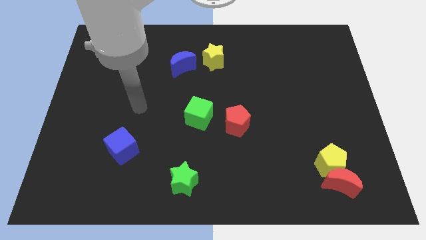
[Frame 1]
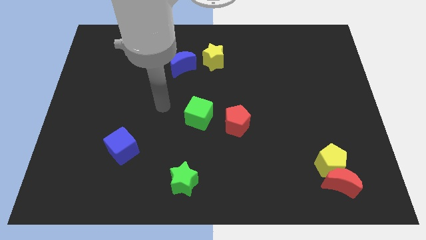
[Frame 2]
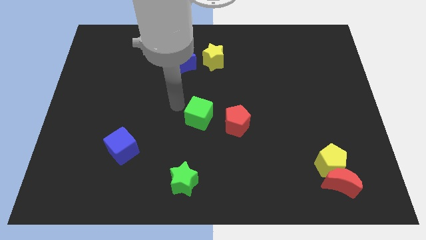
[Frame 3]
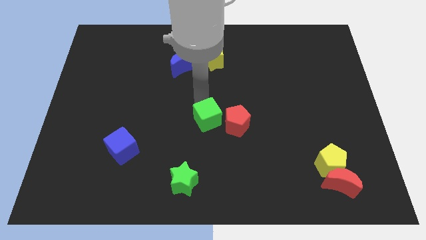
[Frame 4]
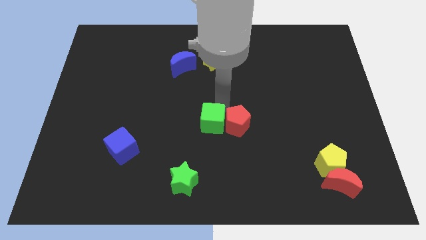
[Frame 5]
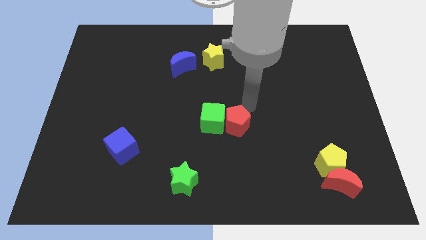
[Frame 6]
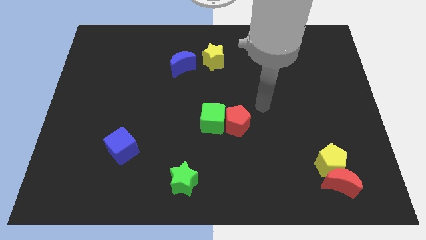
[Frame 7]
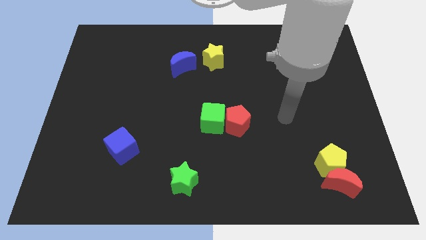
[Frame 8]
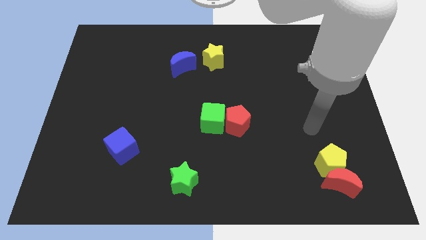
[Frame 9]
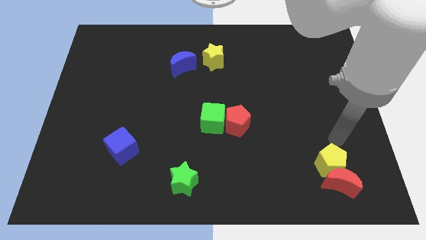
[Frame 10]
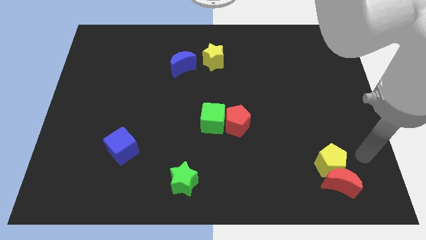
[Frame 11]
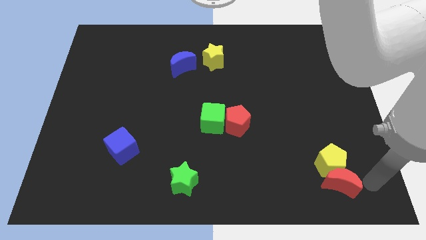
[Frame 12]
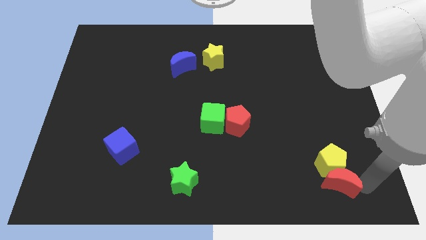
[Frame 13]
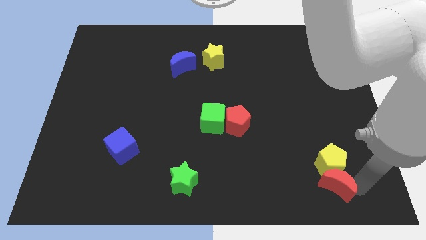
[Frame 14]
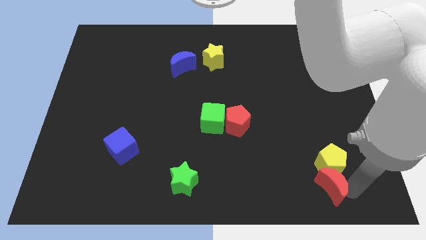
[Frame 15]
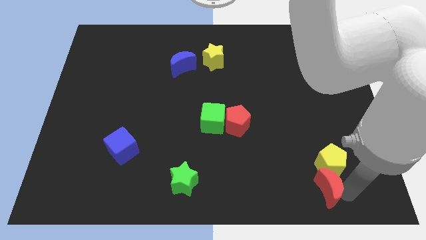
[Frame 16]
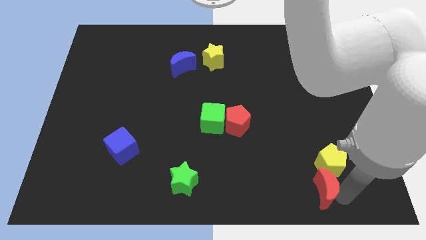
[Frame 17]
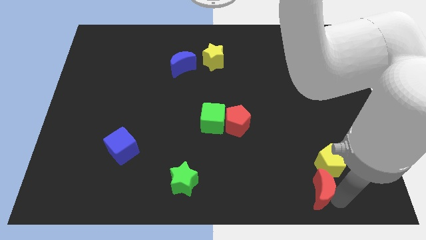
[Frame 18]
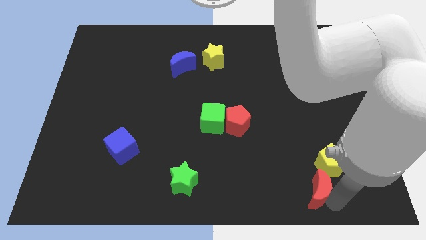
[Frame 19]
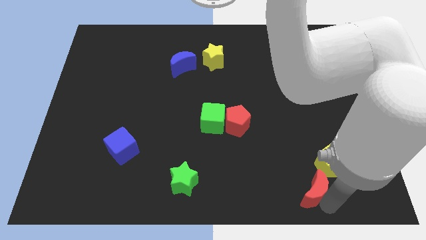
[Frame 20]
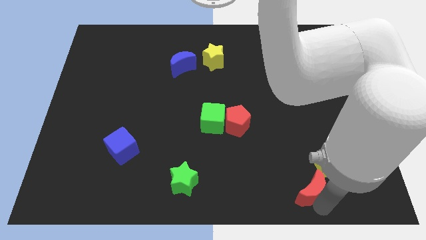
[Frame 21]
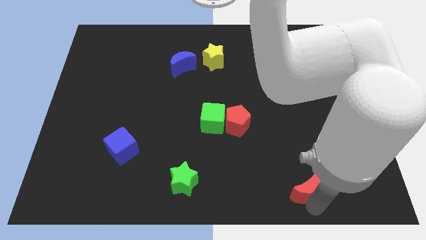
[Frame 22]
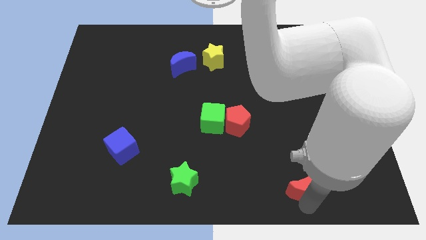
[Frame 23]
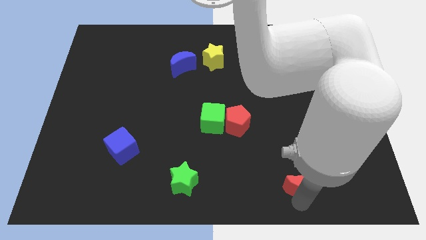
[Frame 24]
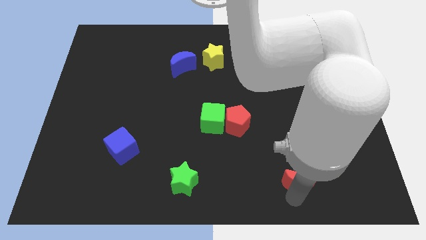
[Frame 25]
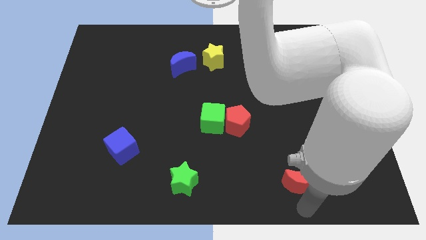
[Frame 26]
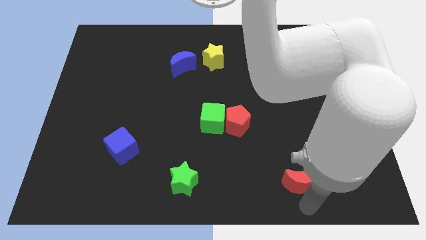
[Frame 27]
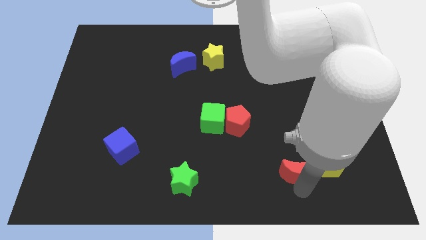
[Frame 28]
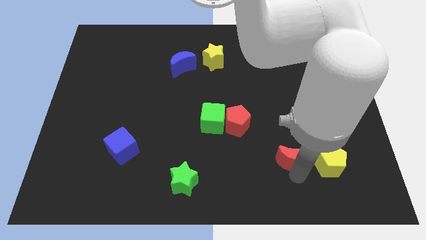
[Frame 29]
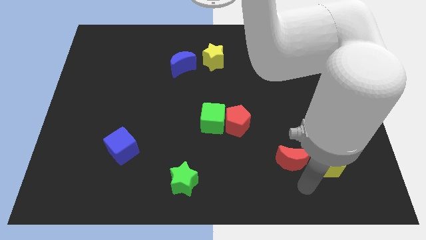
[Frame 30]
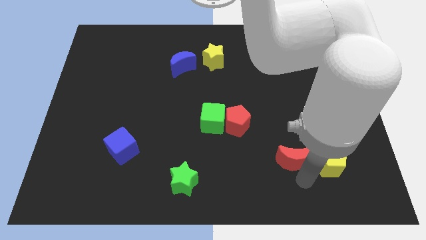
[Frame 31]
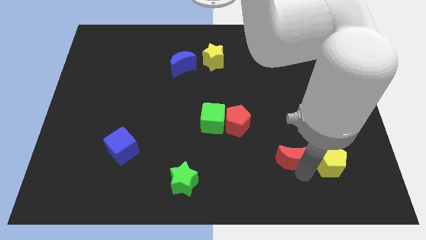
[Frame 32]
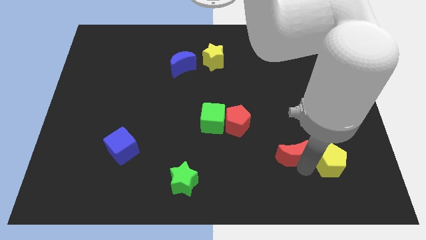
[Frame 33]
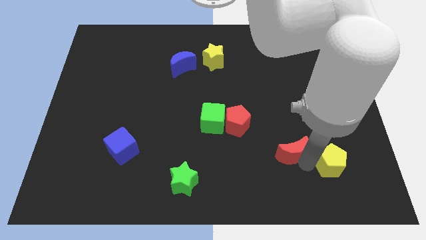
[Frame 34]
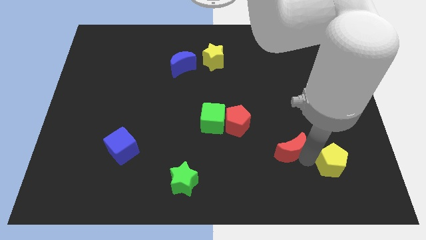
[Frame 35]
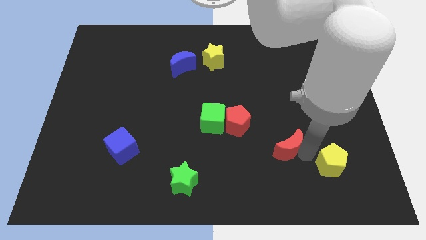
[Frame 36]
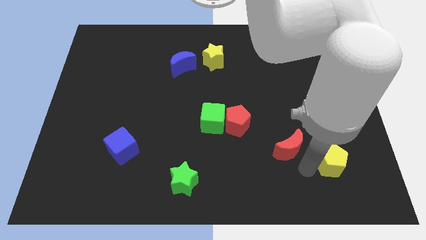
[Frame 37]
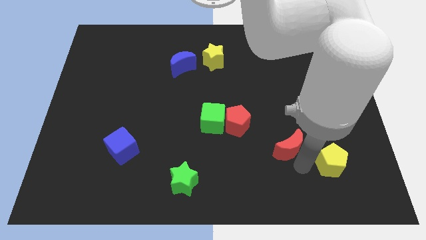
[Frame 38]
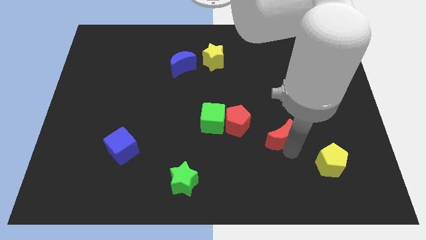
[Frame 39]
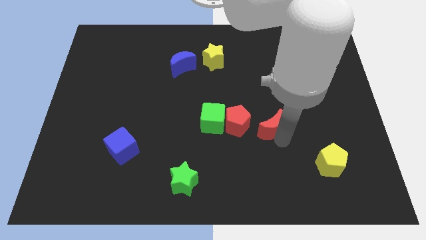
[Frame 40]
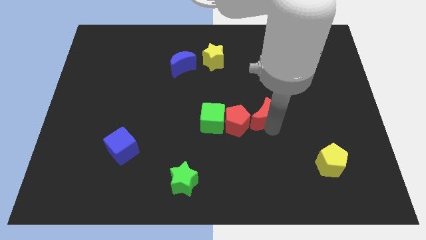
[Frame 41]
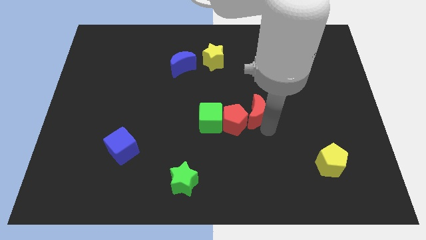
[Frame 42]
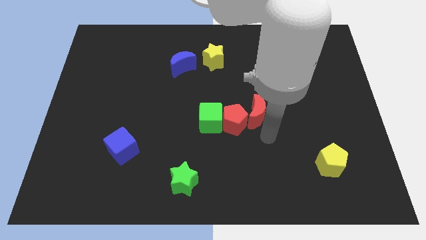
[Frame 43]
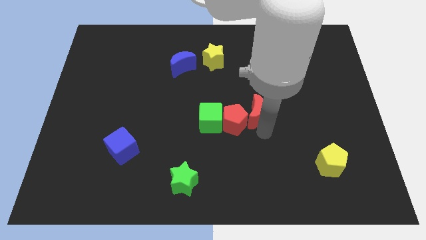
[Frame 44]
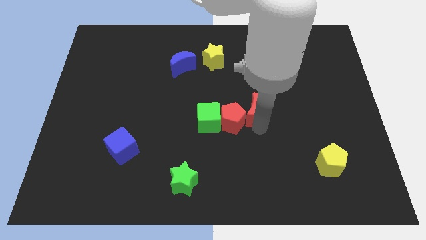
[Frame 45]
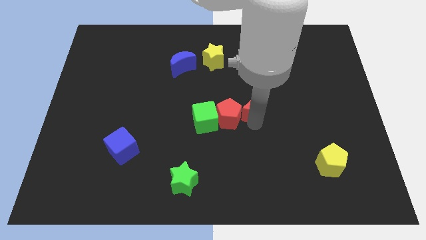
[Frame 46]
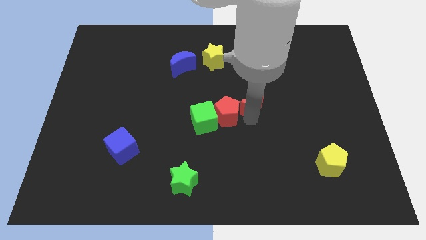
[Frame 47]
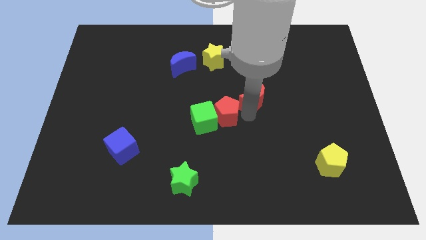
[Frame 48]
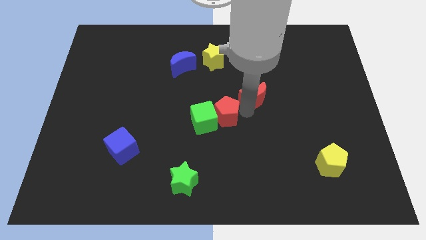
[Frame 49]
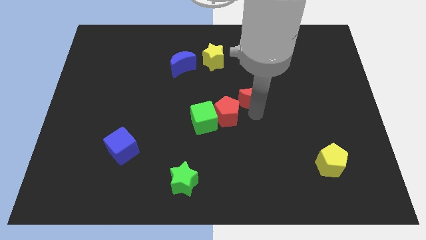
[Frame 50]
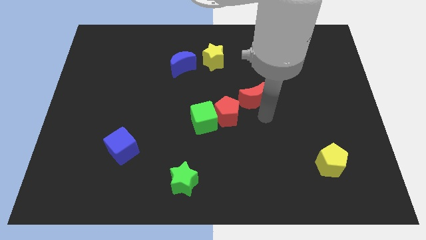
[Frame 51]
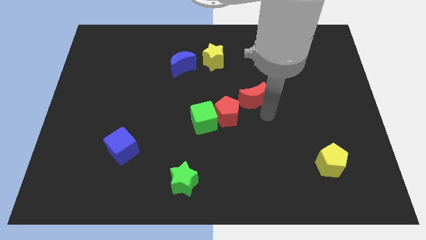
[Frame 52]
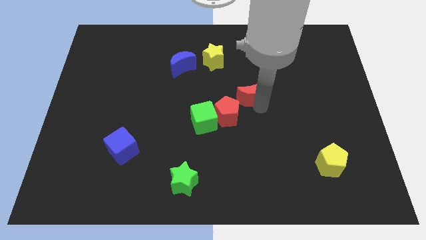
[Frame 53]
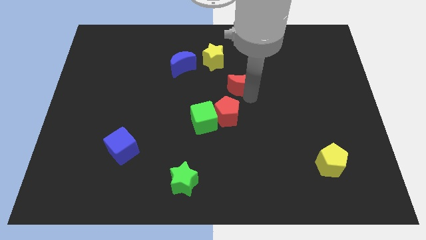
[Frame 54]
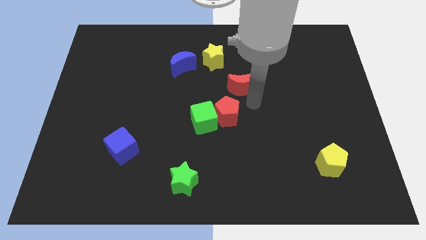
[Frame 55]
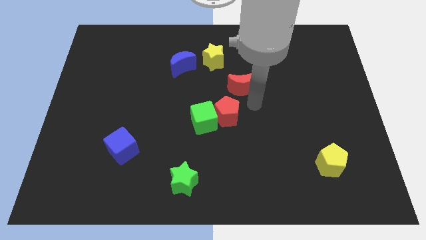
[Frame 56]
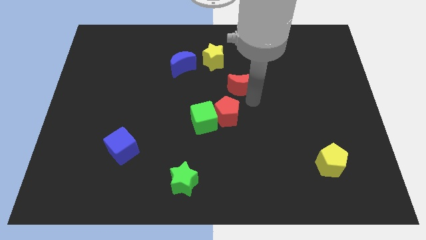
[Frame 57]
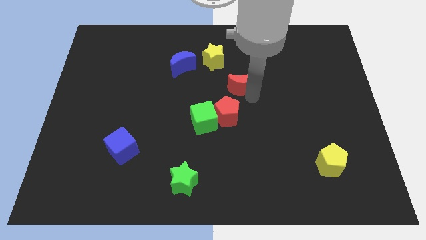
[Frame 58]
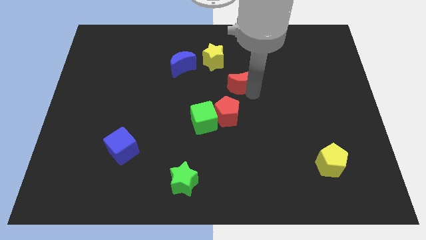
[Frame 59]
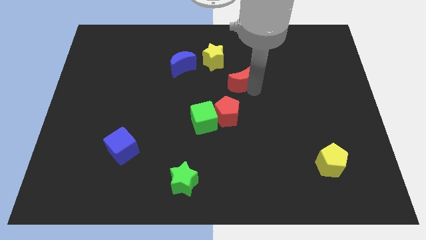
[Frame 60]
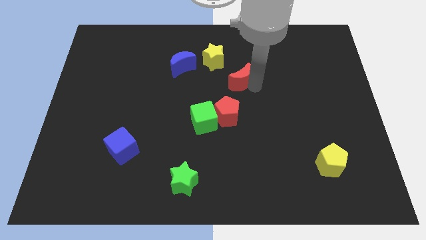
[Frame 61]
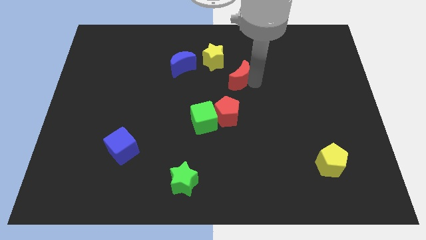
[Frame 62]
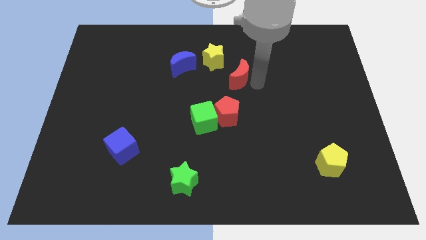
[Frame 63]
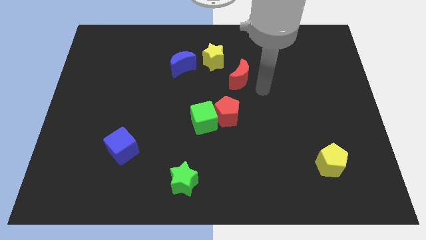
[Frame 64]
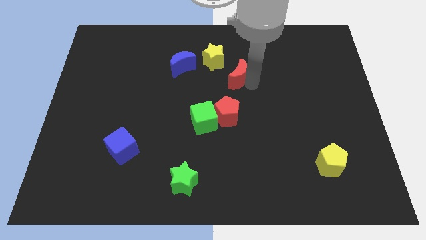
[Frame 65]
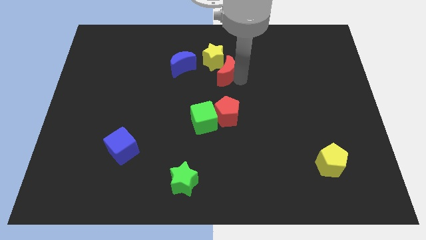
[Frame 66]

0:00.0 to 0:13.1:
put the red moon close to the yellow star
